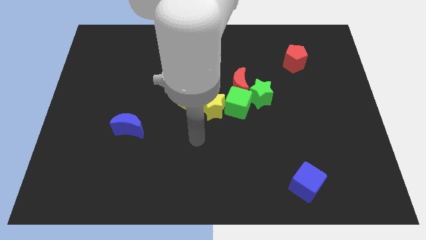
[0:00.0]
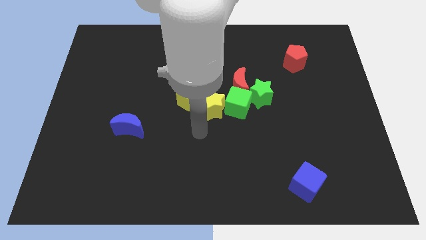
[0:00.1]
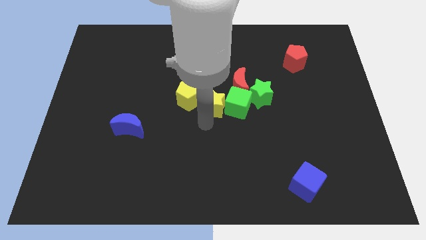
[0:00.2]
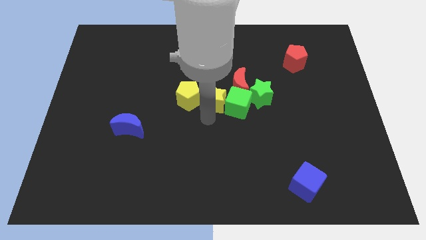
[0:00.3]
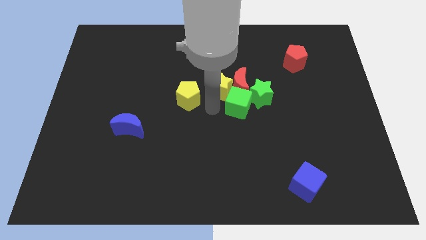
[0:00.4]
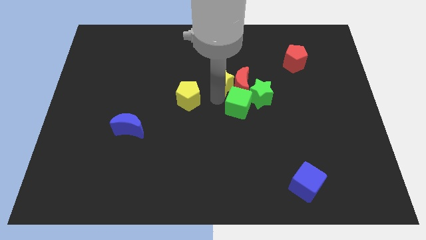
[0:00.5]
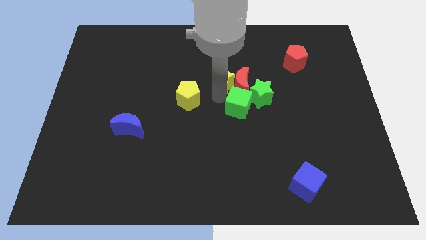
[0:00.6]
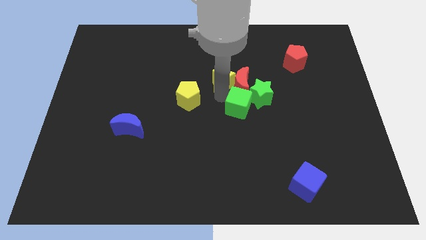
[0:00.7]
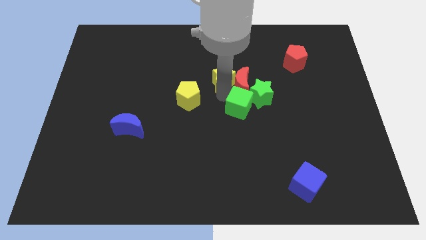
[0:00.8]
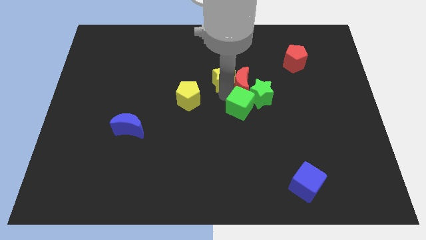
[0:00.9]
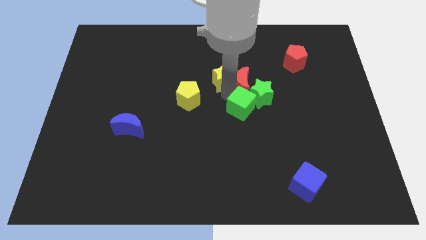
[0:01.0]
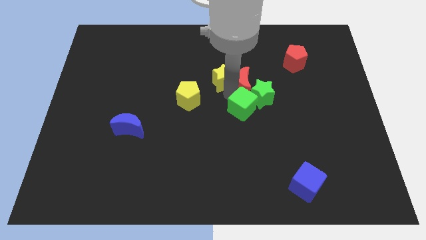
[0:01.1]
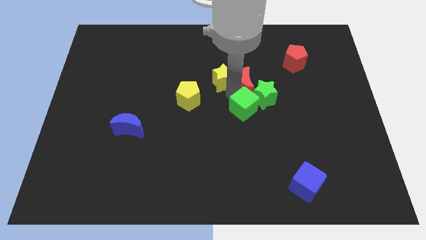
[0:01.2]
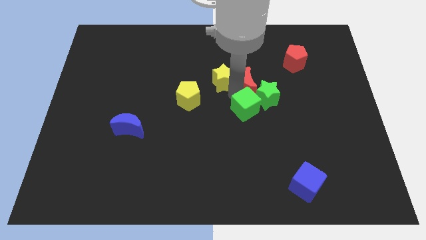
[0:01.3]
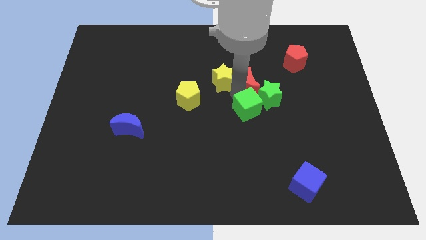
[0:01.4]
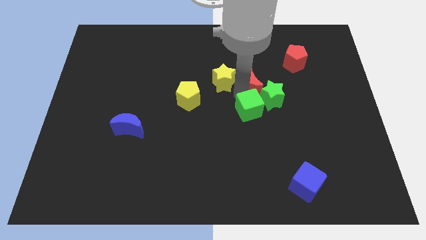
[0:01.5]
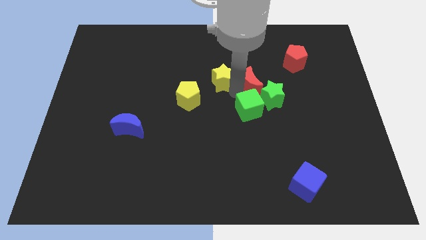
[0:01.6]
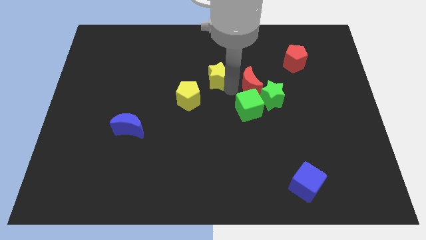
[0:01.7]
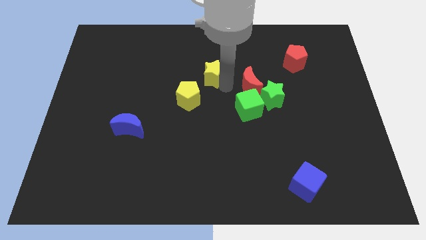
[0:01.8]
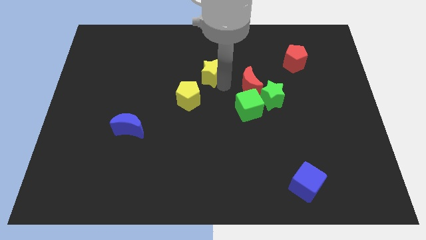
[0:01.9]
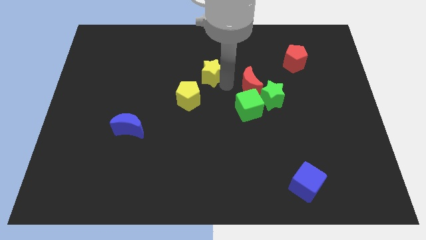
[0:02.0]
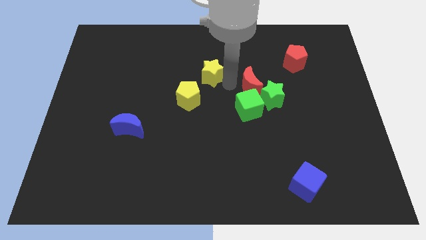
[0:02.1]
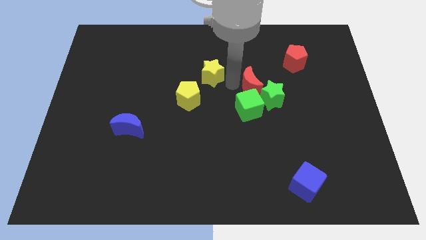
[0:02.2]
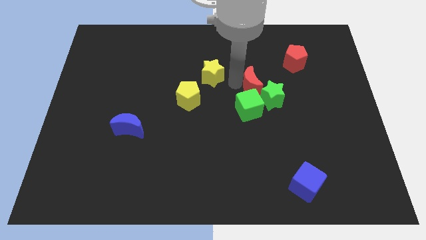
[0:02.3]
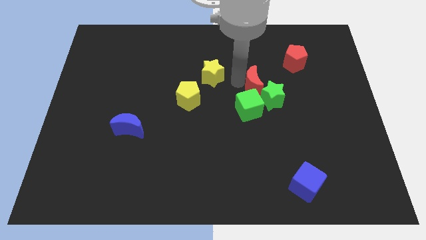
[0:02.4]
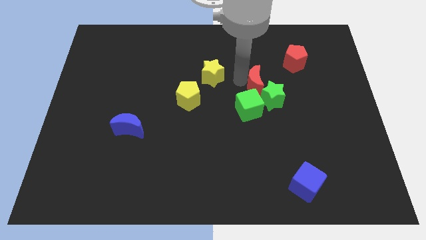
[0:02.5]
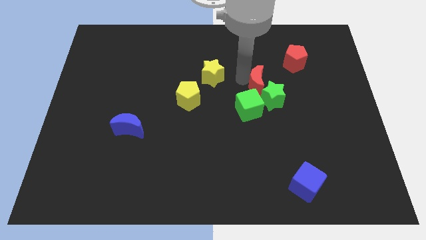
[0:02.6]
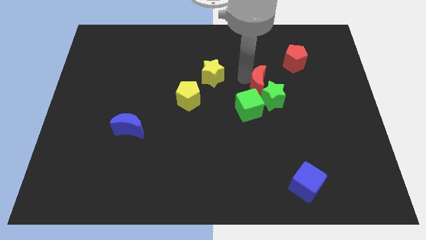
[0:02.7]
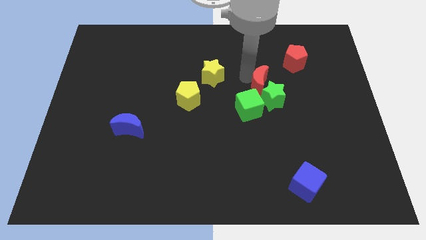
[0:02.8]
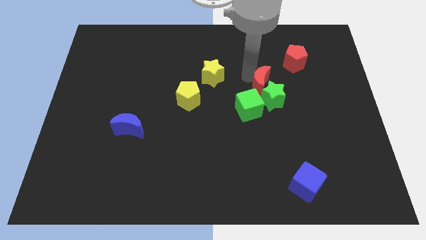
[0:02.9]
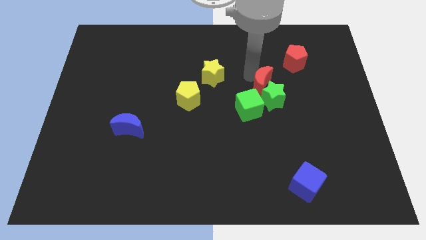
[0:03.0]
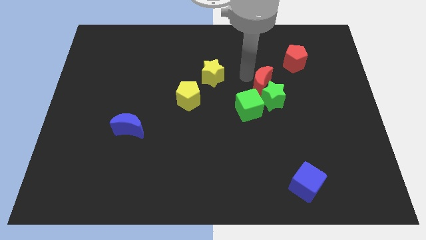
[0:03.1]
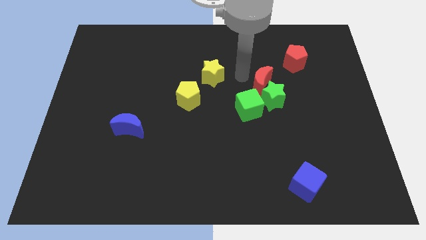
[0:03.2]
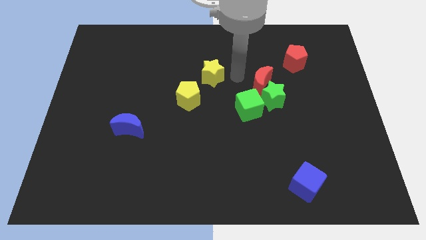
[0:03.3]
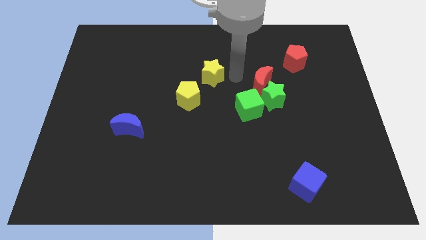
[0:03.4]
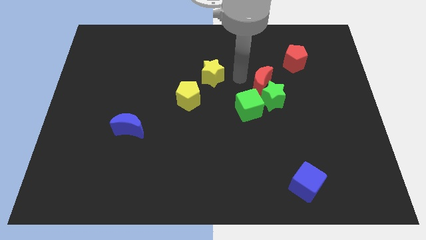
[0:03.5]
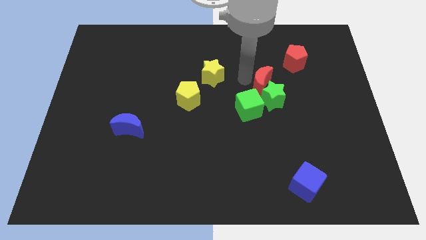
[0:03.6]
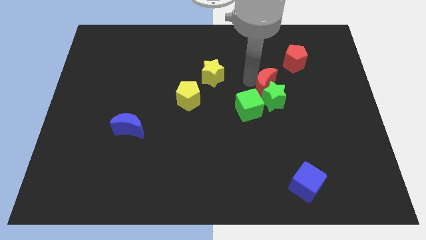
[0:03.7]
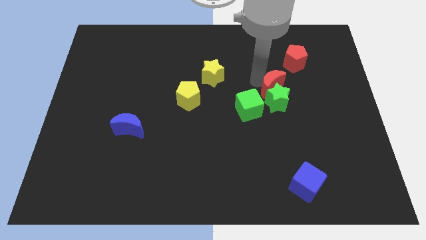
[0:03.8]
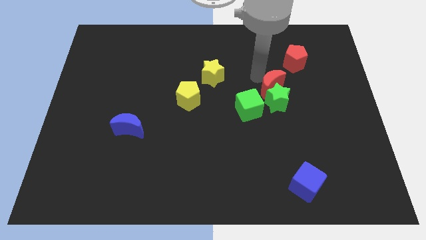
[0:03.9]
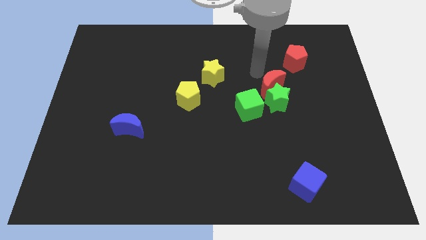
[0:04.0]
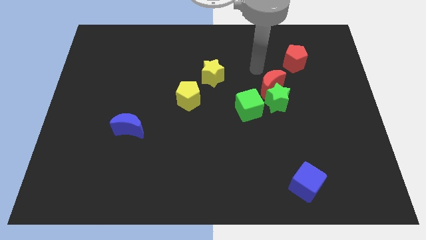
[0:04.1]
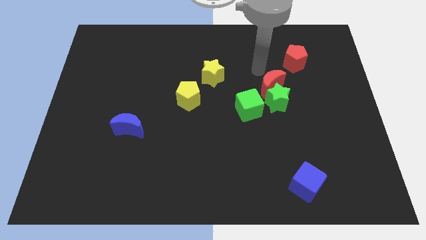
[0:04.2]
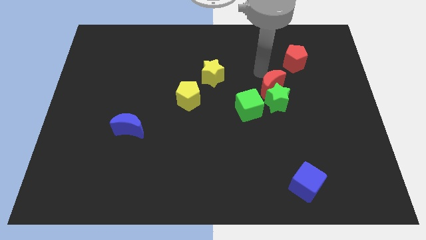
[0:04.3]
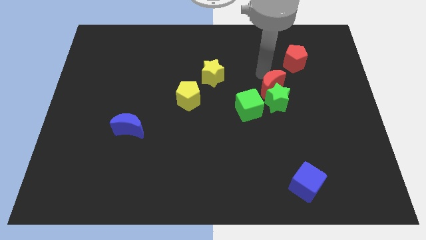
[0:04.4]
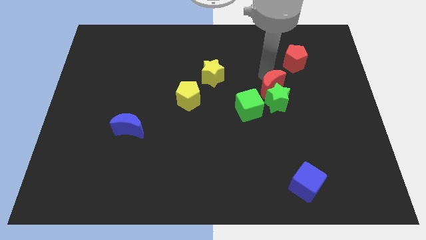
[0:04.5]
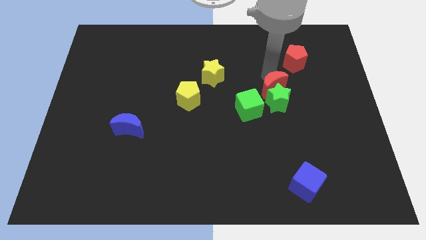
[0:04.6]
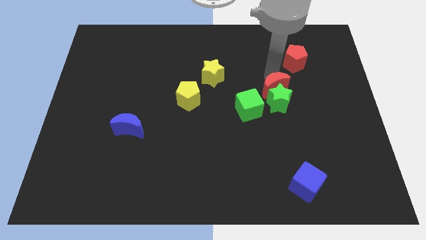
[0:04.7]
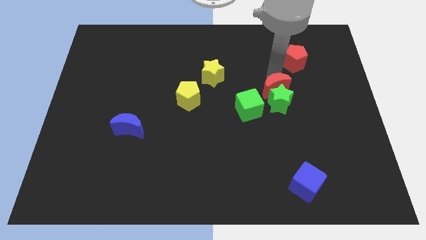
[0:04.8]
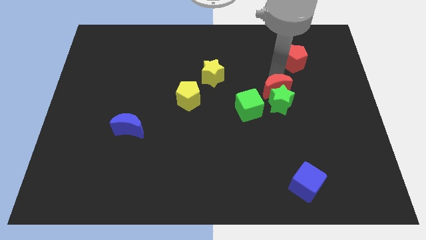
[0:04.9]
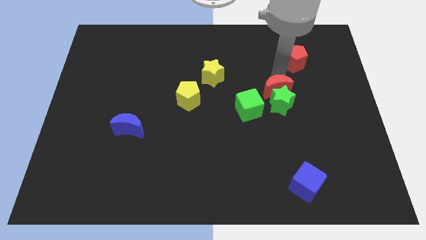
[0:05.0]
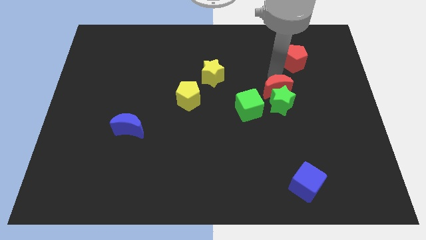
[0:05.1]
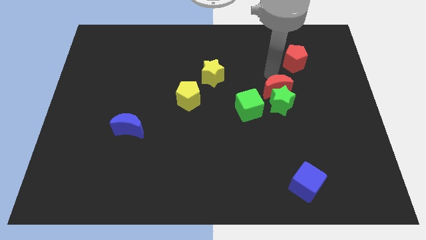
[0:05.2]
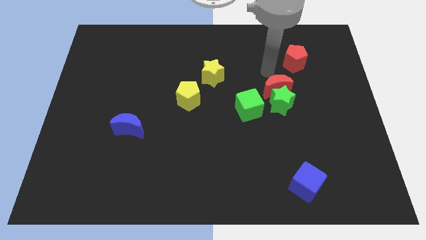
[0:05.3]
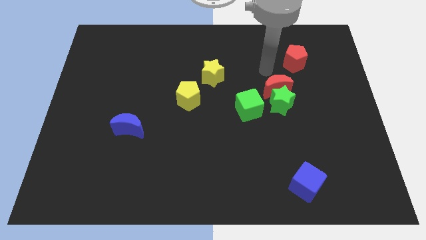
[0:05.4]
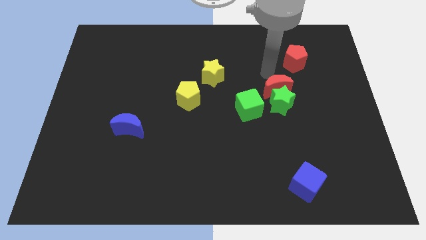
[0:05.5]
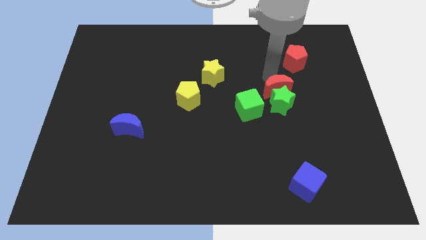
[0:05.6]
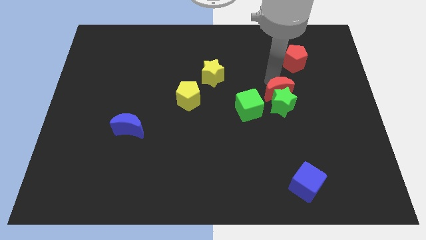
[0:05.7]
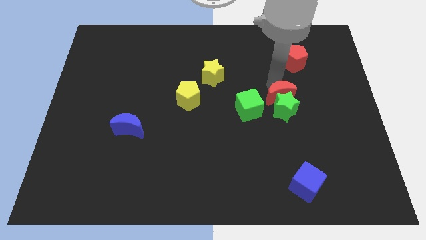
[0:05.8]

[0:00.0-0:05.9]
move the red moon down and to the right somewhat

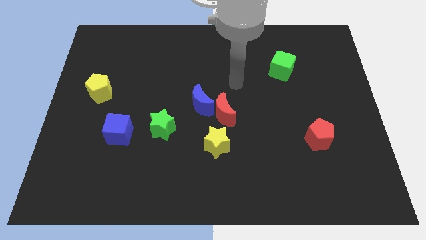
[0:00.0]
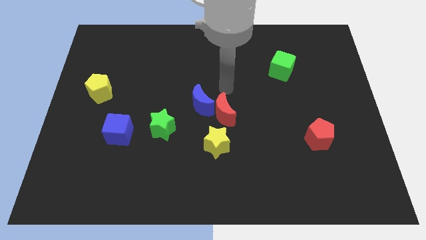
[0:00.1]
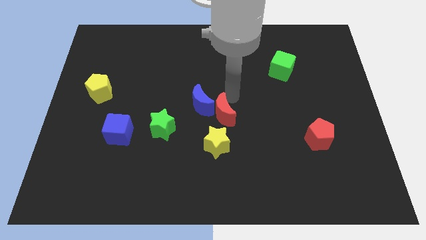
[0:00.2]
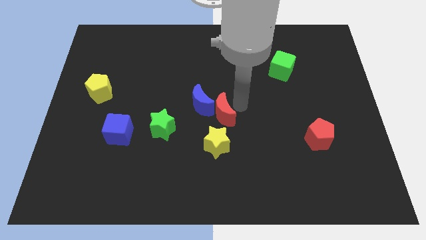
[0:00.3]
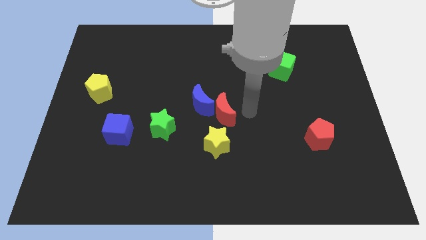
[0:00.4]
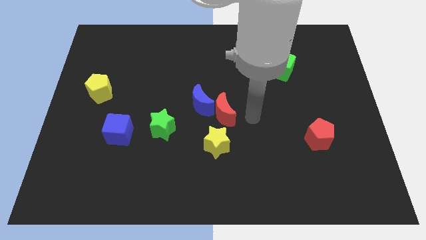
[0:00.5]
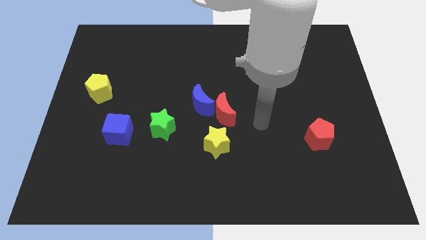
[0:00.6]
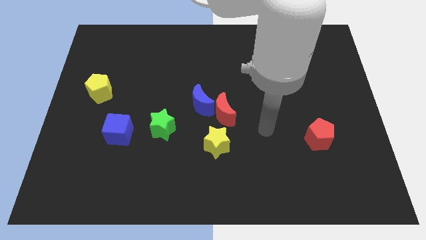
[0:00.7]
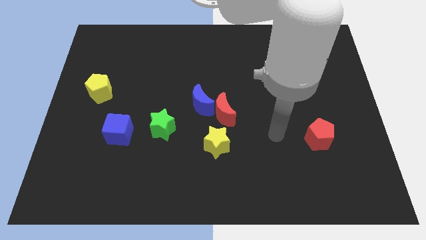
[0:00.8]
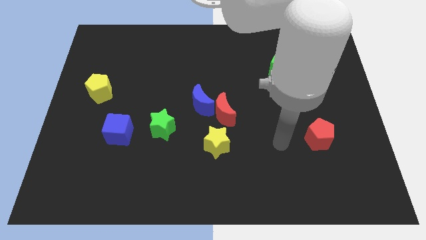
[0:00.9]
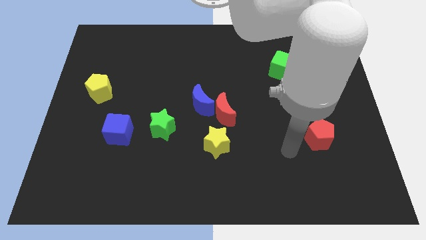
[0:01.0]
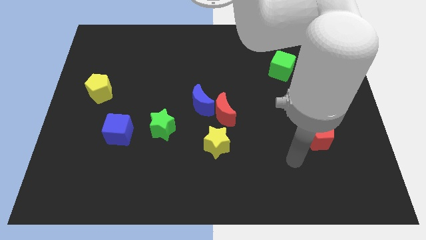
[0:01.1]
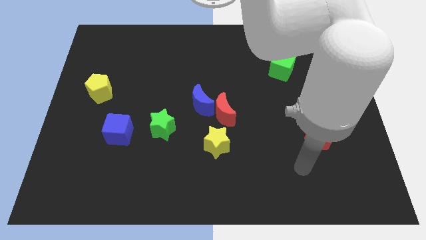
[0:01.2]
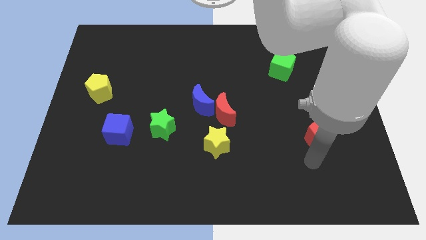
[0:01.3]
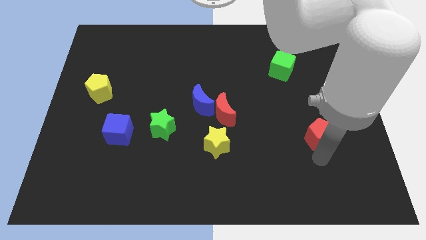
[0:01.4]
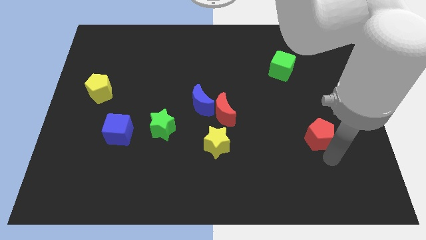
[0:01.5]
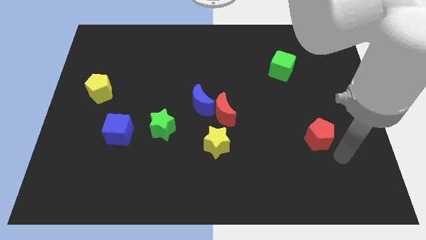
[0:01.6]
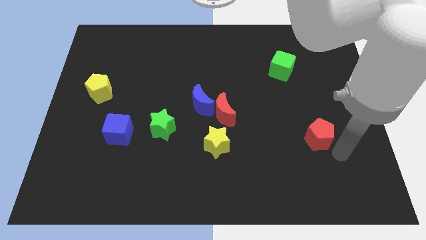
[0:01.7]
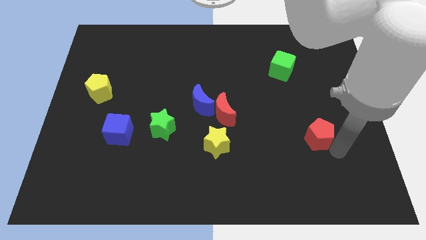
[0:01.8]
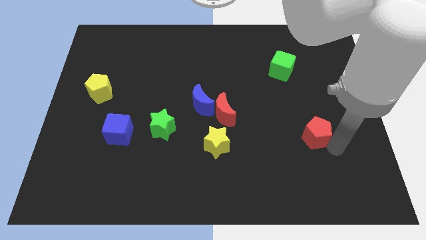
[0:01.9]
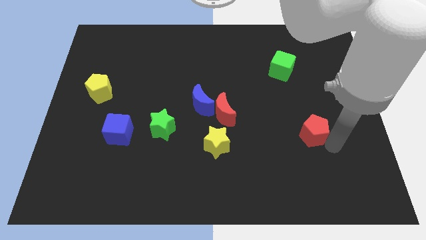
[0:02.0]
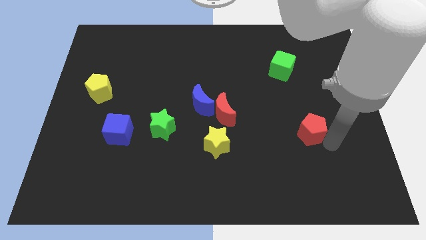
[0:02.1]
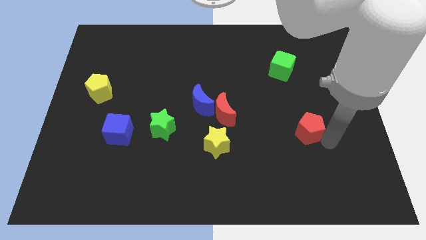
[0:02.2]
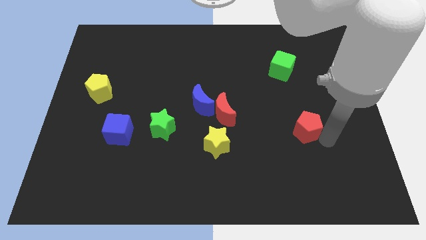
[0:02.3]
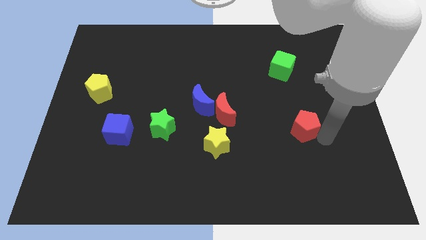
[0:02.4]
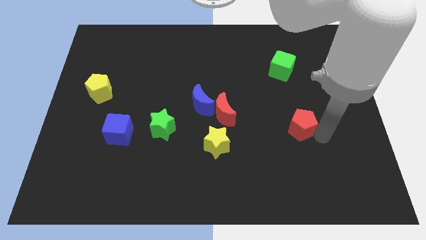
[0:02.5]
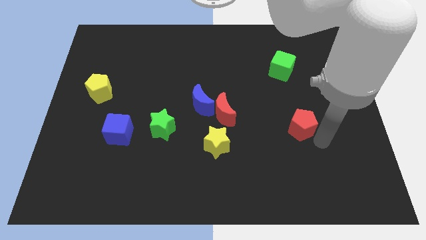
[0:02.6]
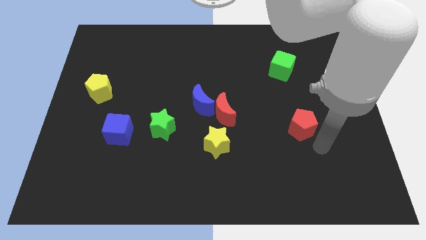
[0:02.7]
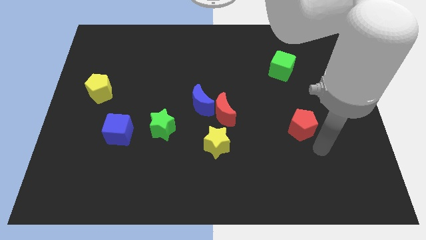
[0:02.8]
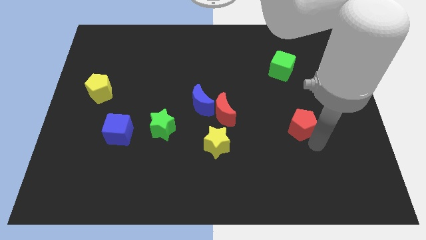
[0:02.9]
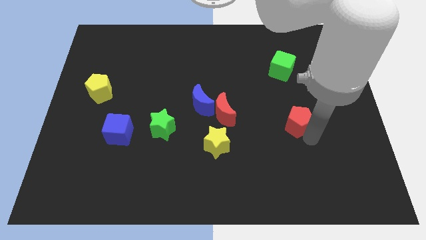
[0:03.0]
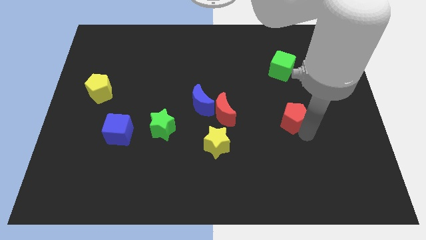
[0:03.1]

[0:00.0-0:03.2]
slide the red pentagon up and then left a little
